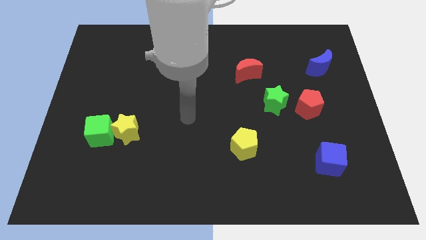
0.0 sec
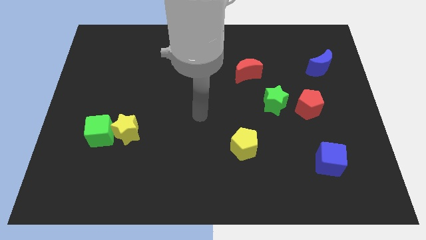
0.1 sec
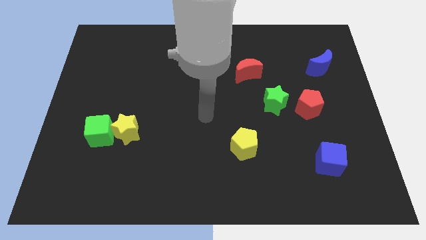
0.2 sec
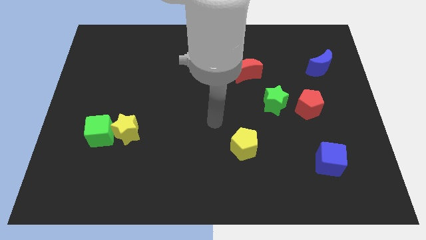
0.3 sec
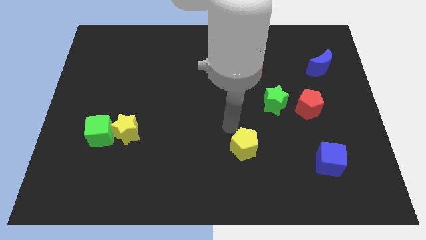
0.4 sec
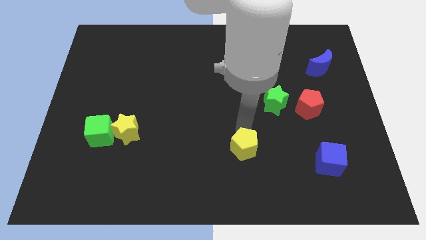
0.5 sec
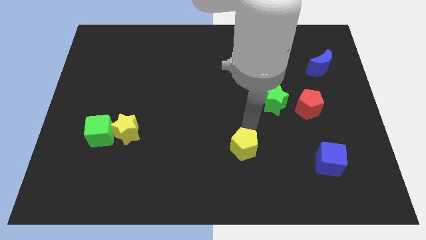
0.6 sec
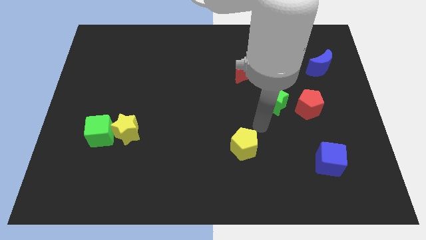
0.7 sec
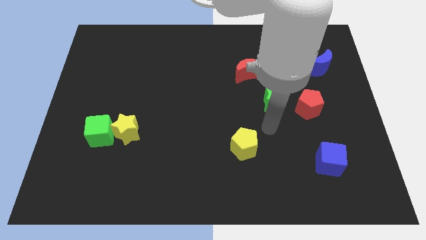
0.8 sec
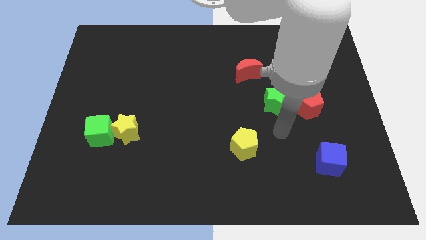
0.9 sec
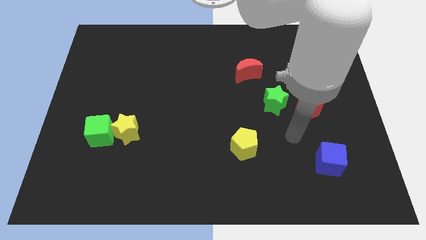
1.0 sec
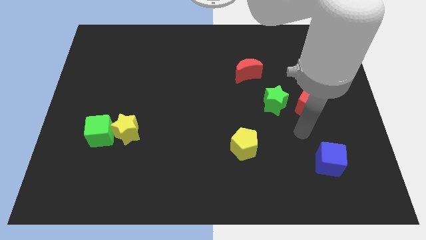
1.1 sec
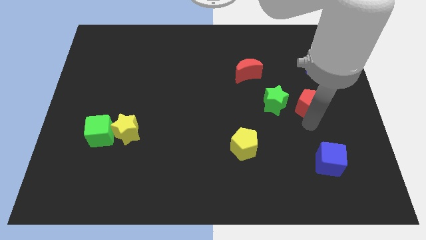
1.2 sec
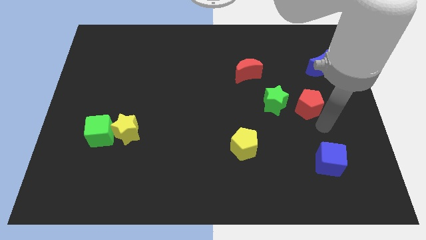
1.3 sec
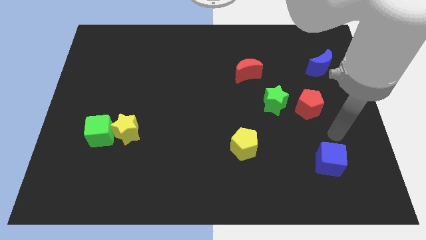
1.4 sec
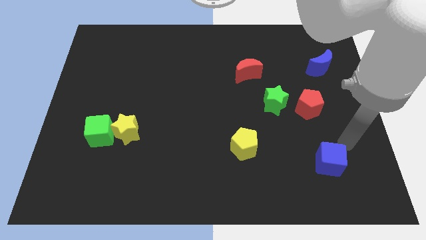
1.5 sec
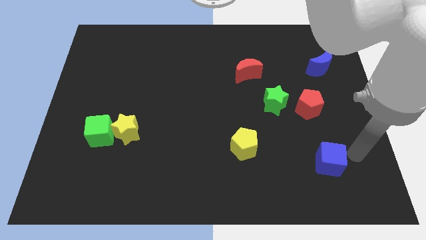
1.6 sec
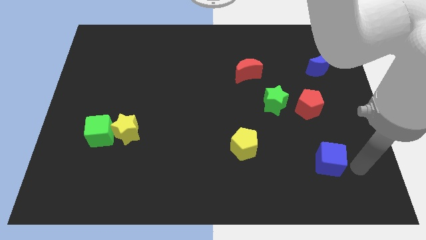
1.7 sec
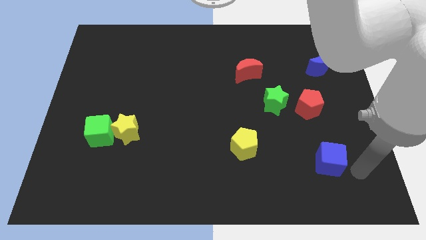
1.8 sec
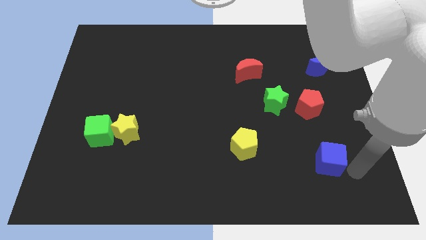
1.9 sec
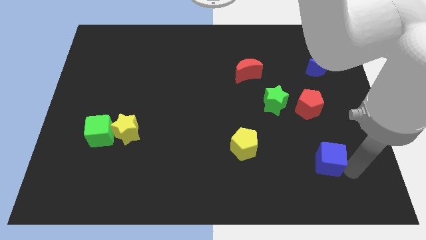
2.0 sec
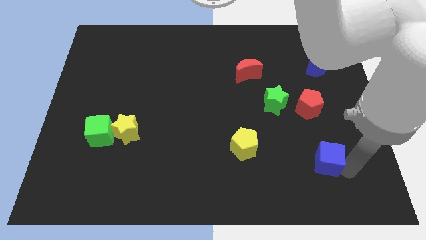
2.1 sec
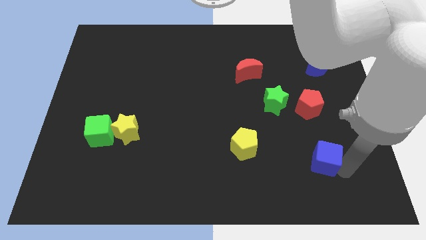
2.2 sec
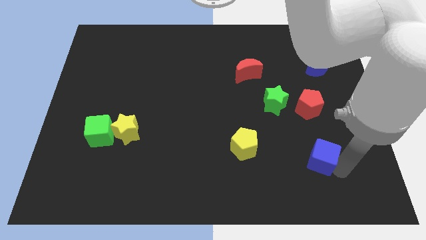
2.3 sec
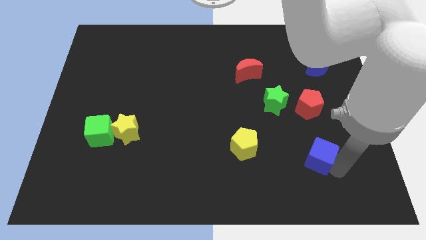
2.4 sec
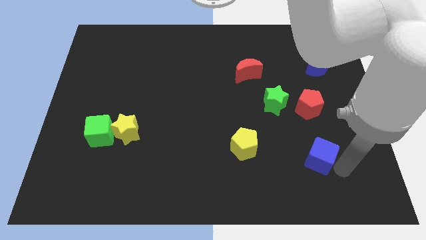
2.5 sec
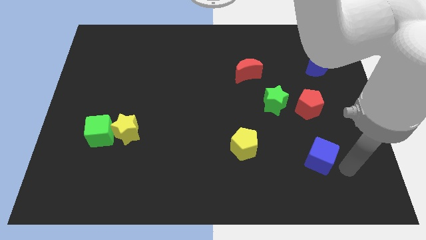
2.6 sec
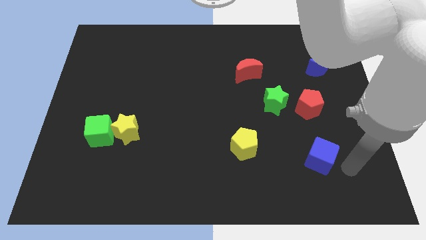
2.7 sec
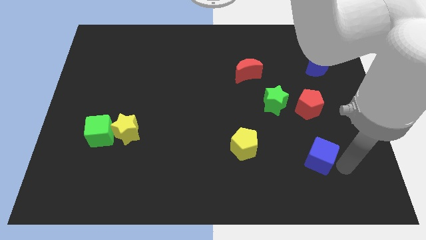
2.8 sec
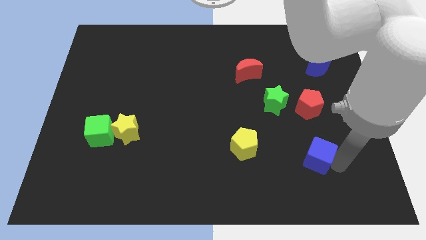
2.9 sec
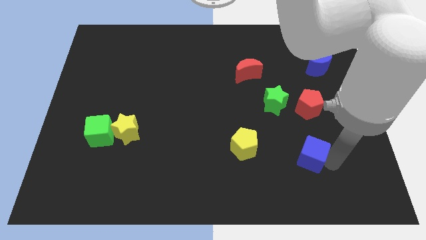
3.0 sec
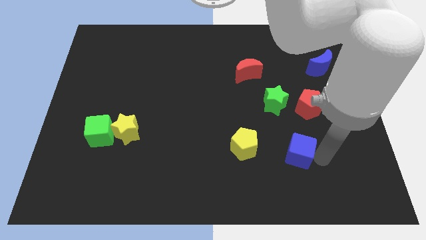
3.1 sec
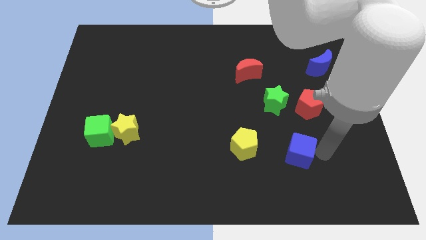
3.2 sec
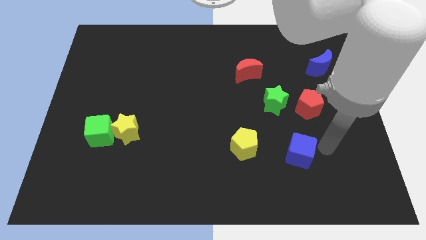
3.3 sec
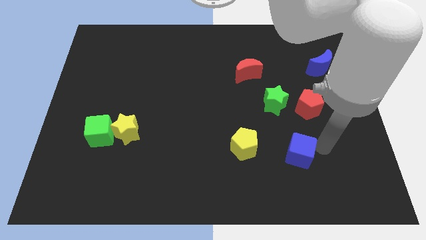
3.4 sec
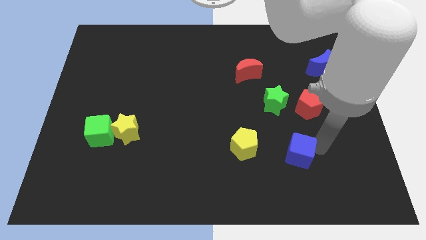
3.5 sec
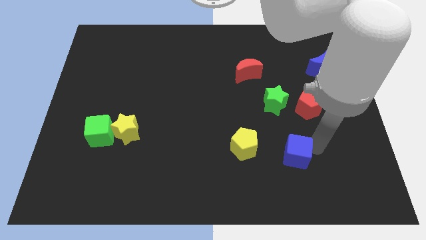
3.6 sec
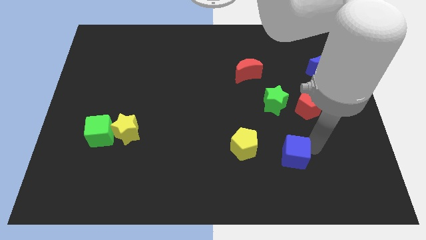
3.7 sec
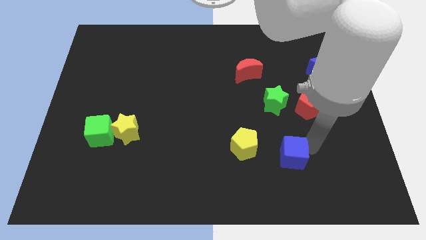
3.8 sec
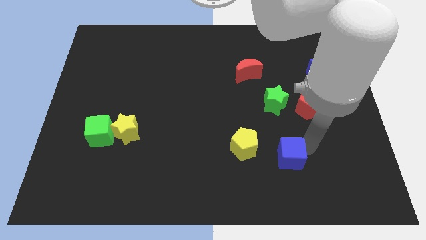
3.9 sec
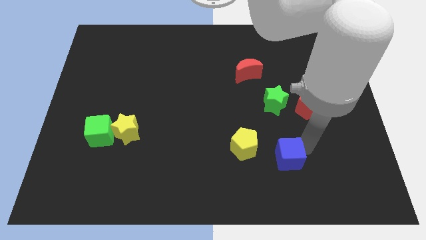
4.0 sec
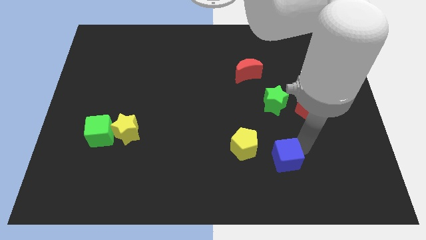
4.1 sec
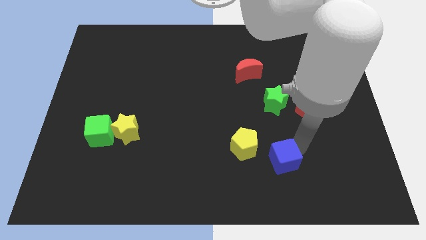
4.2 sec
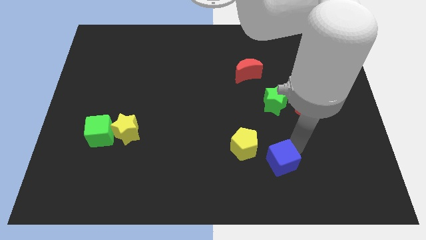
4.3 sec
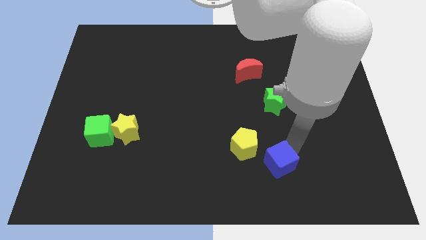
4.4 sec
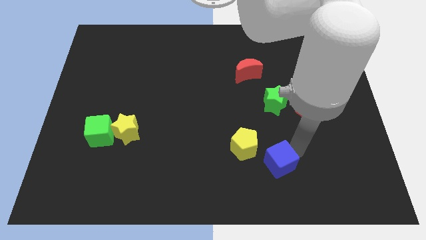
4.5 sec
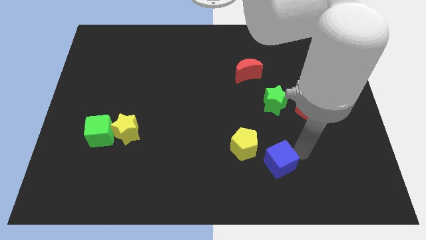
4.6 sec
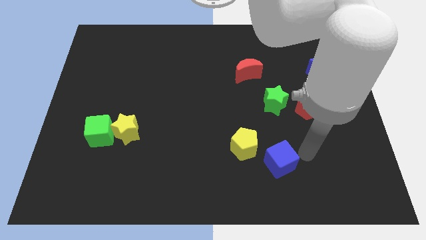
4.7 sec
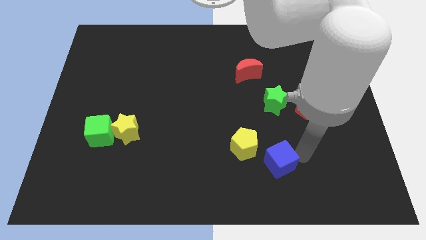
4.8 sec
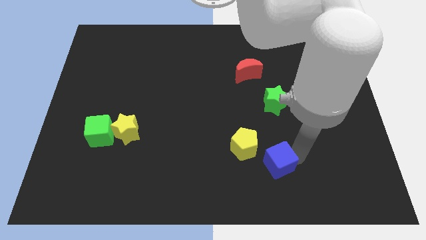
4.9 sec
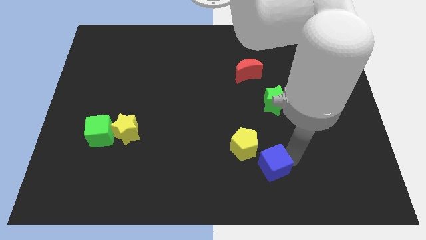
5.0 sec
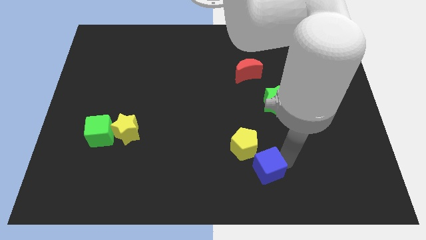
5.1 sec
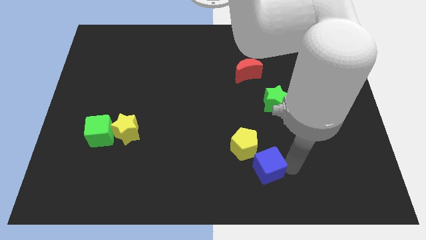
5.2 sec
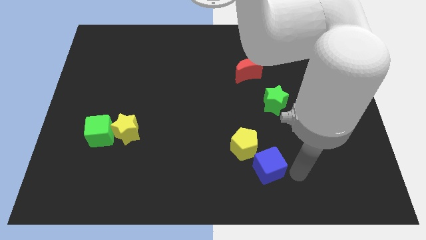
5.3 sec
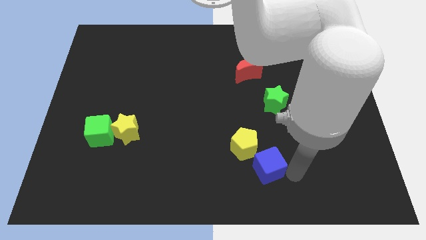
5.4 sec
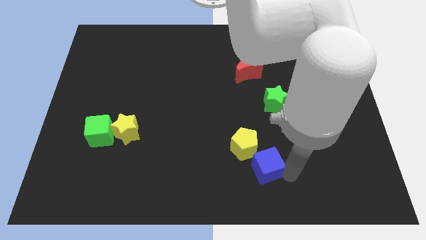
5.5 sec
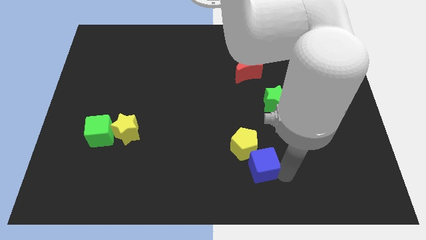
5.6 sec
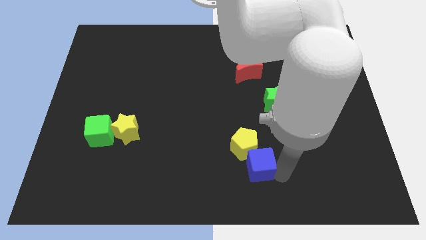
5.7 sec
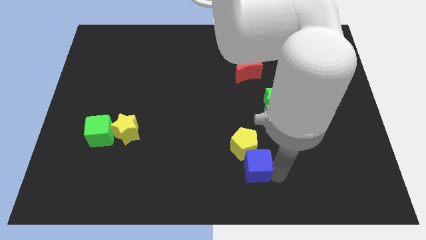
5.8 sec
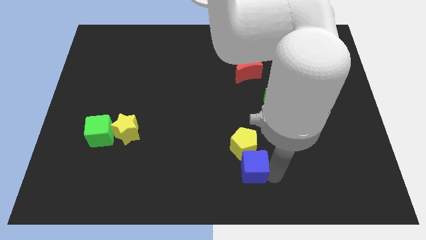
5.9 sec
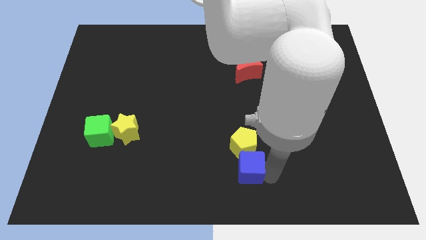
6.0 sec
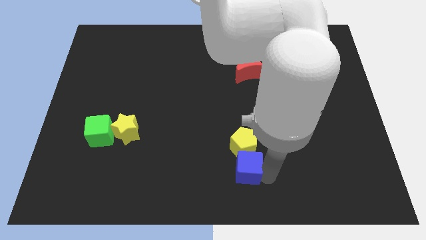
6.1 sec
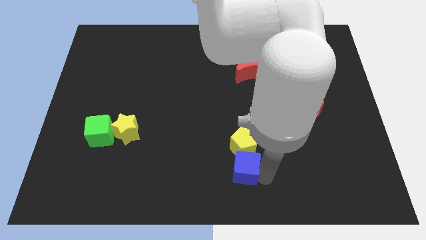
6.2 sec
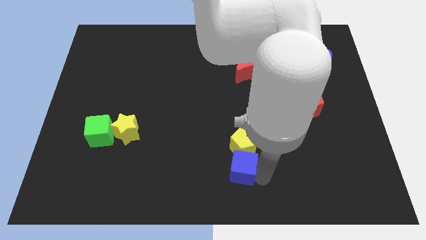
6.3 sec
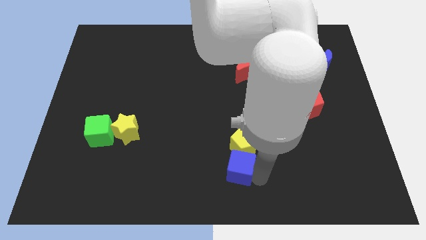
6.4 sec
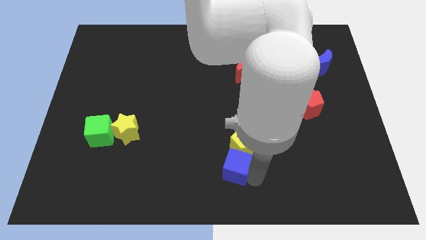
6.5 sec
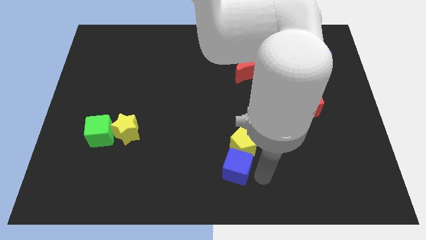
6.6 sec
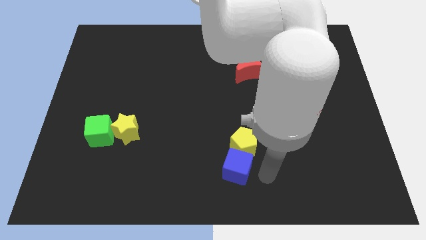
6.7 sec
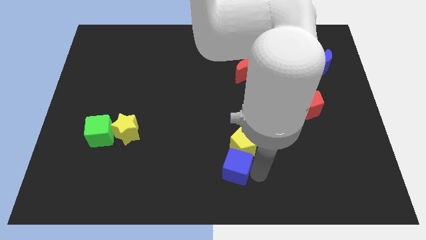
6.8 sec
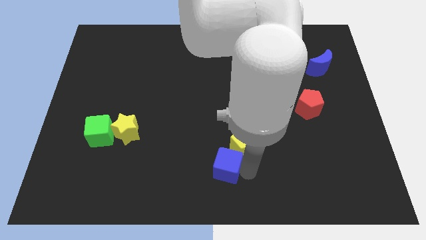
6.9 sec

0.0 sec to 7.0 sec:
slide the blue cube left

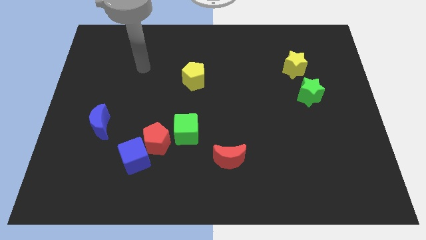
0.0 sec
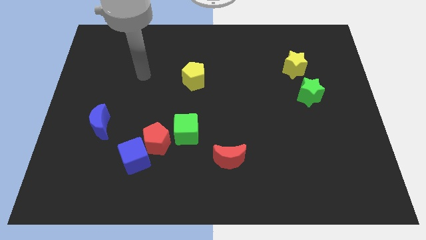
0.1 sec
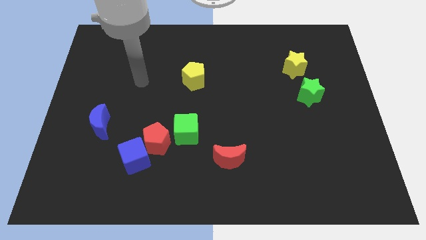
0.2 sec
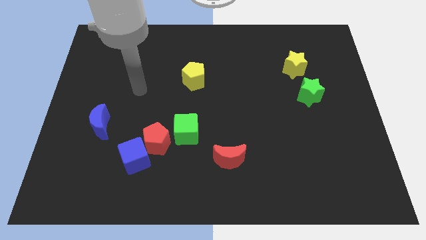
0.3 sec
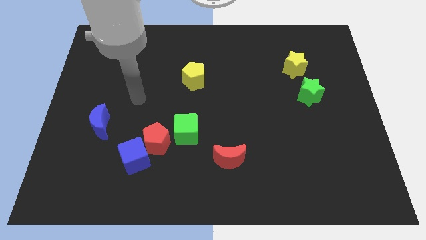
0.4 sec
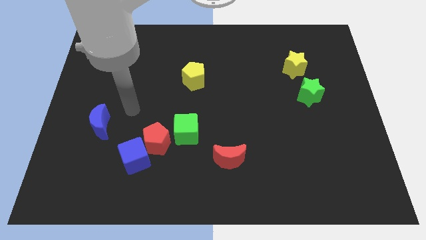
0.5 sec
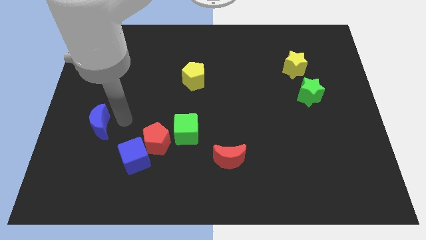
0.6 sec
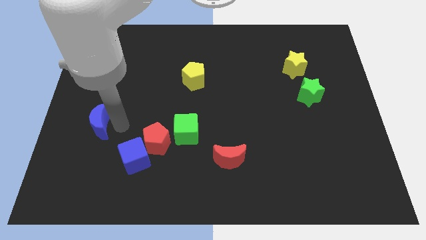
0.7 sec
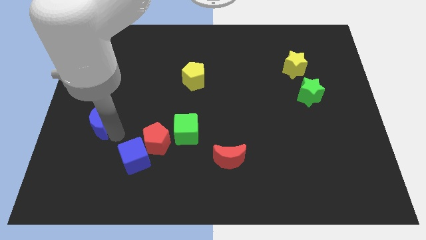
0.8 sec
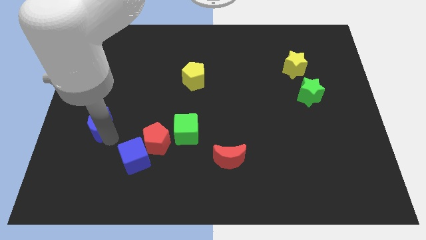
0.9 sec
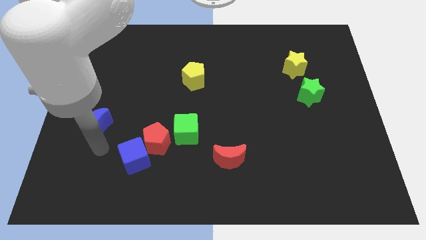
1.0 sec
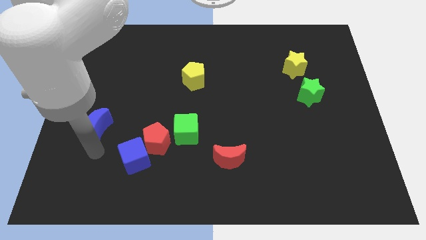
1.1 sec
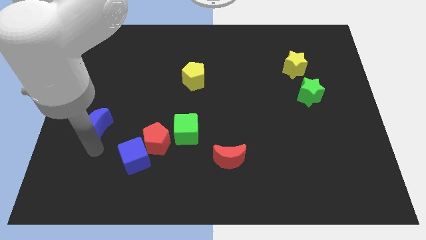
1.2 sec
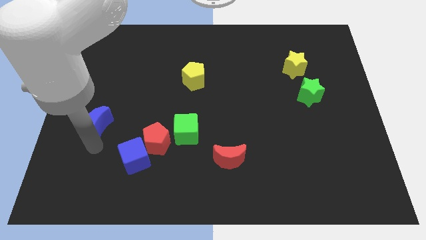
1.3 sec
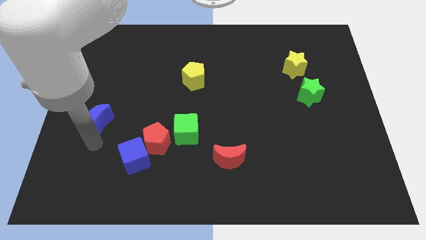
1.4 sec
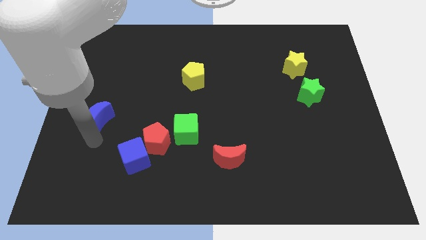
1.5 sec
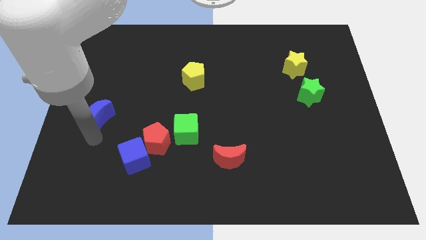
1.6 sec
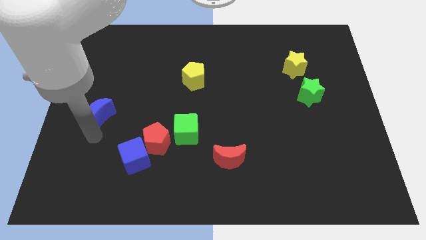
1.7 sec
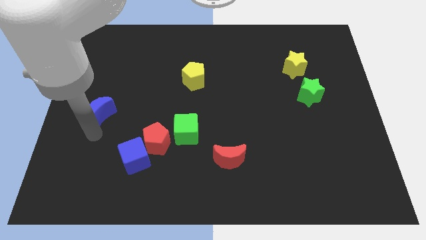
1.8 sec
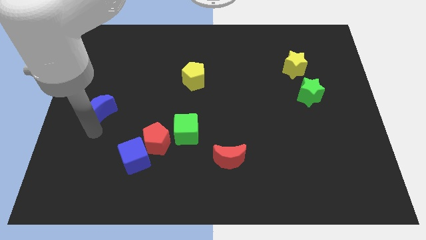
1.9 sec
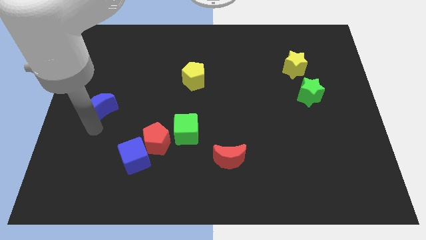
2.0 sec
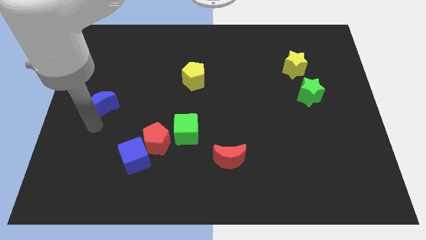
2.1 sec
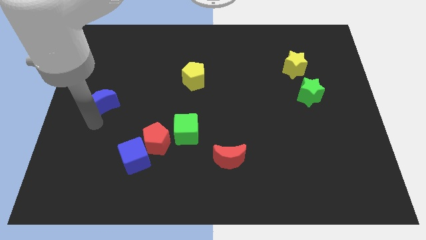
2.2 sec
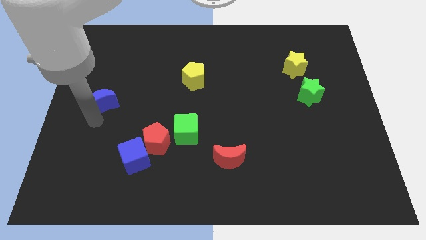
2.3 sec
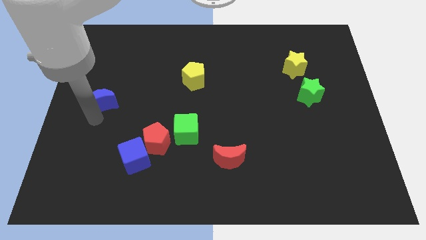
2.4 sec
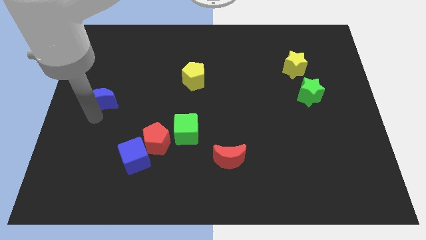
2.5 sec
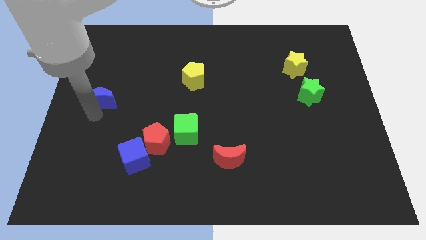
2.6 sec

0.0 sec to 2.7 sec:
slightly move the blue moon up
